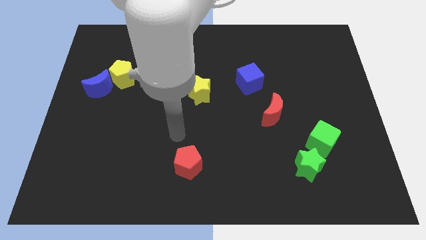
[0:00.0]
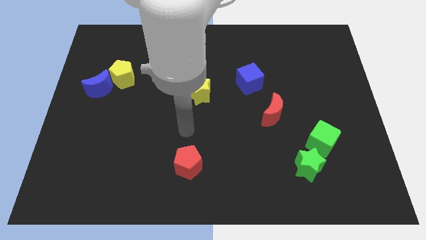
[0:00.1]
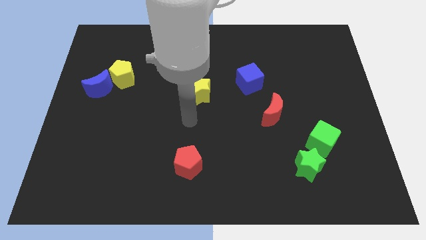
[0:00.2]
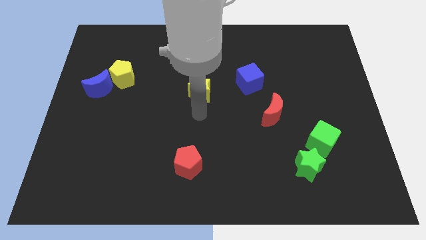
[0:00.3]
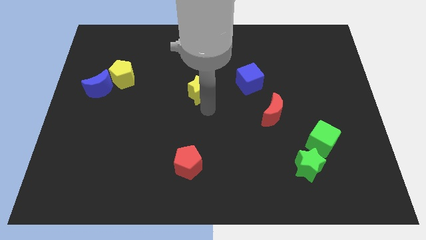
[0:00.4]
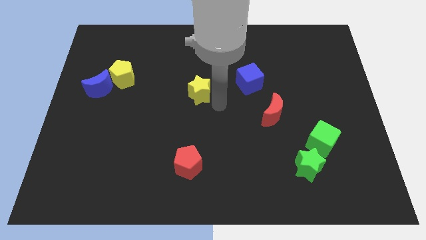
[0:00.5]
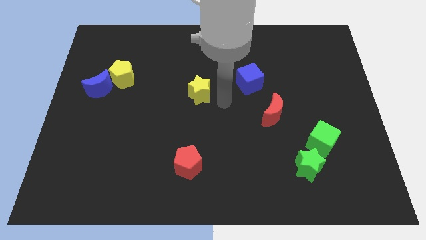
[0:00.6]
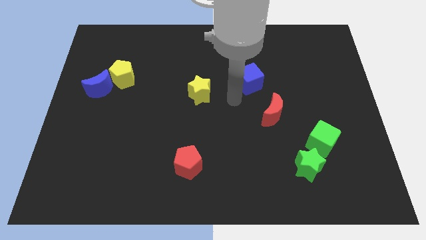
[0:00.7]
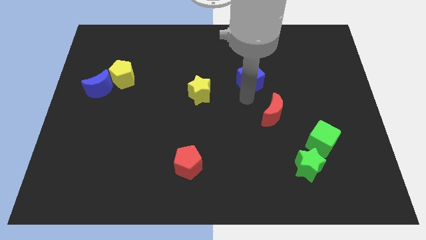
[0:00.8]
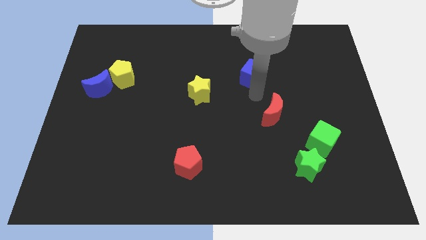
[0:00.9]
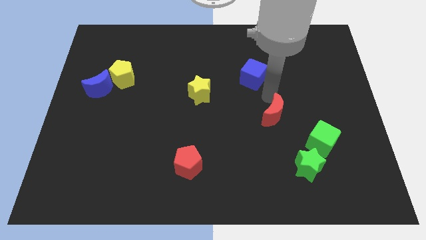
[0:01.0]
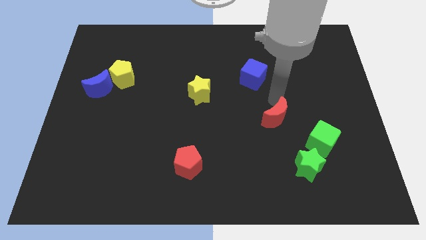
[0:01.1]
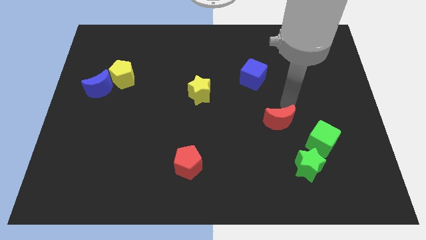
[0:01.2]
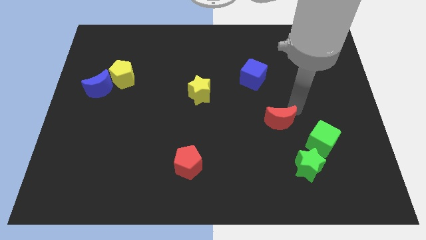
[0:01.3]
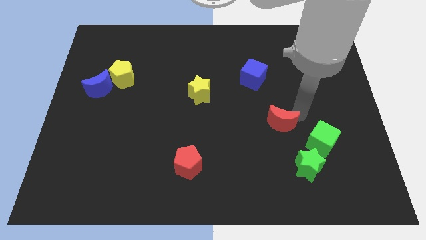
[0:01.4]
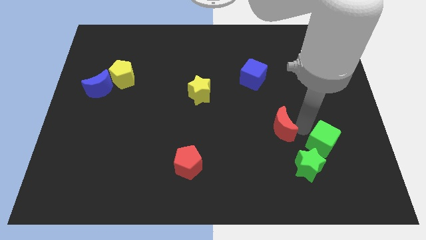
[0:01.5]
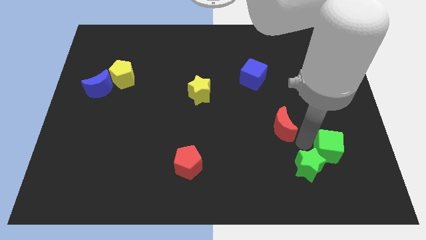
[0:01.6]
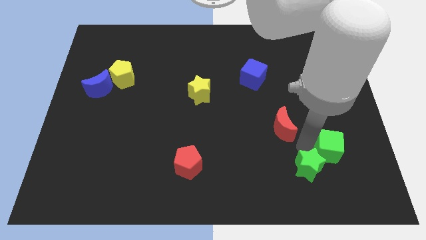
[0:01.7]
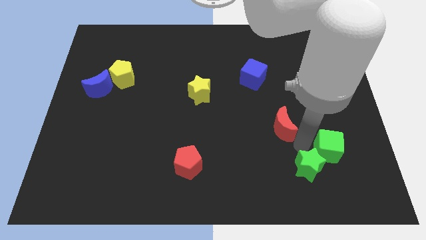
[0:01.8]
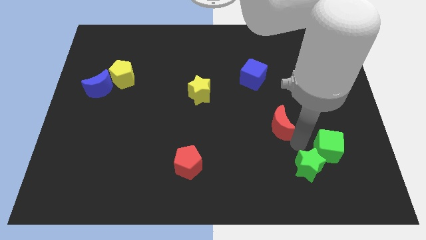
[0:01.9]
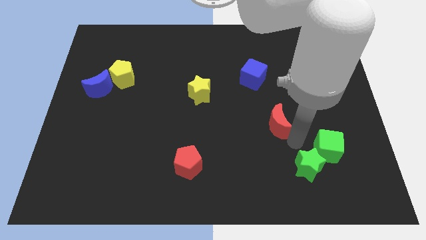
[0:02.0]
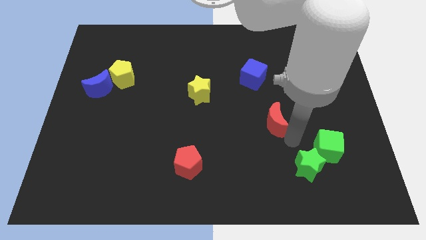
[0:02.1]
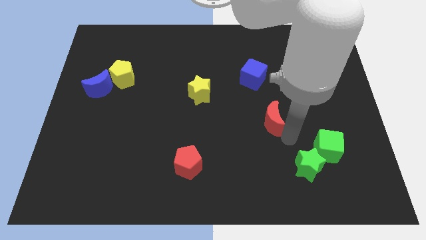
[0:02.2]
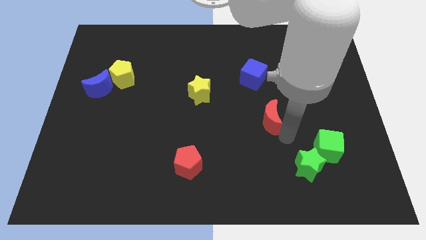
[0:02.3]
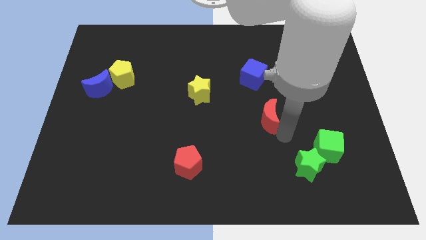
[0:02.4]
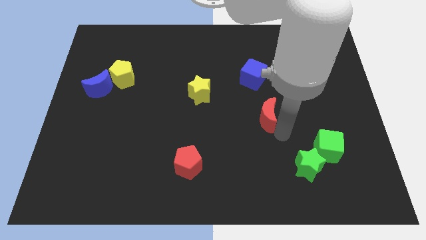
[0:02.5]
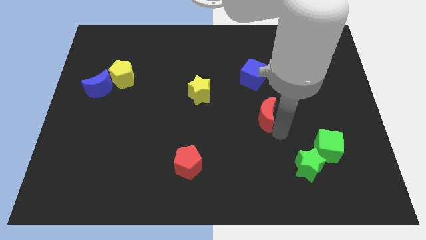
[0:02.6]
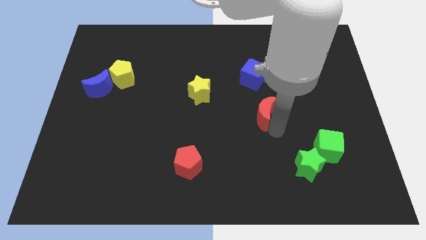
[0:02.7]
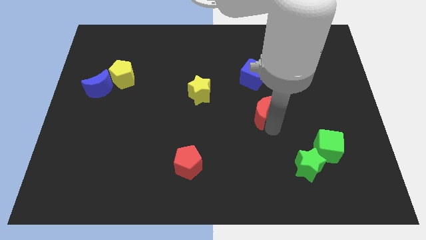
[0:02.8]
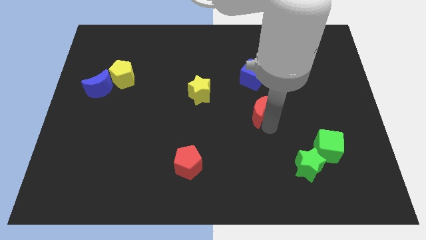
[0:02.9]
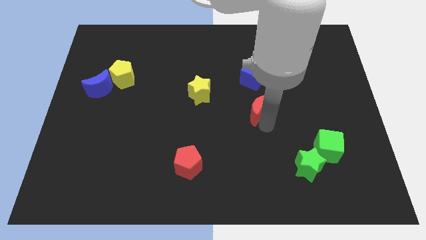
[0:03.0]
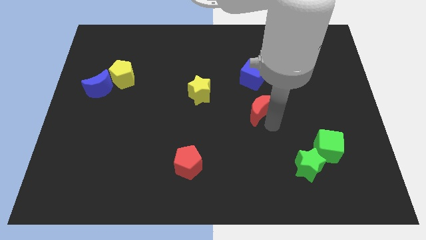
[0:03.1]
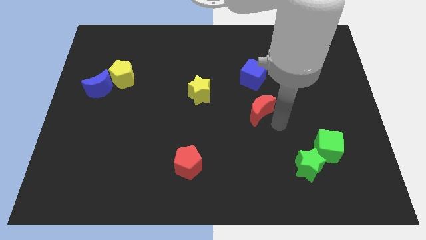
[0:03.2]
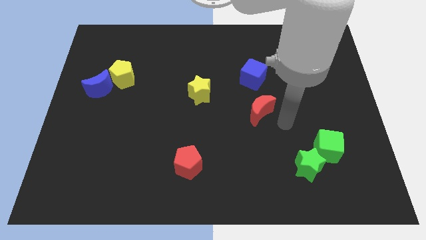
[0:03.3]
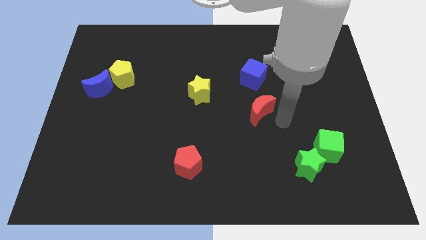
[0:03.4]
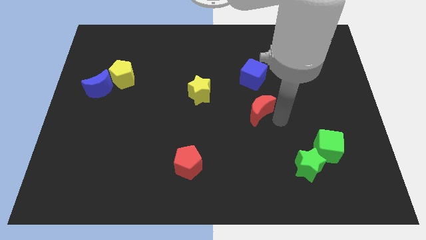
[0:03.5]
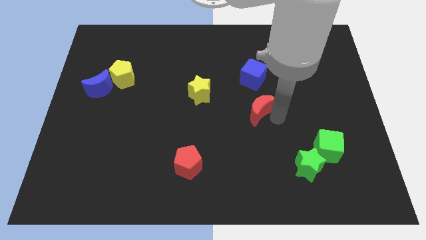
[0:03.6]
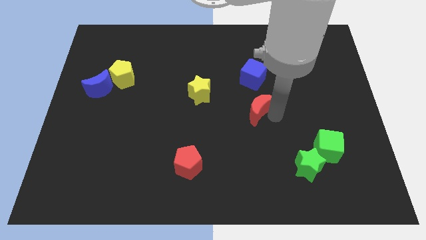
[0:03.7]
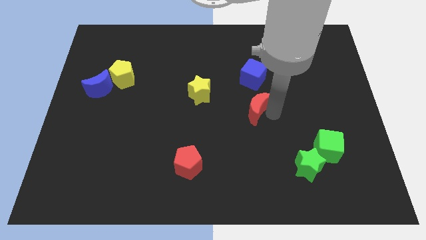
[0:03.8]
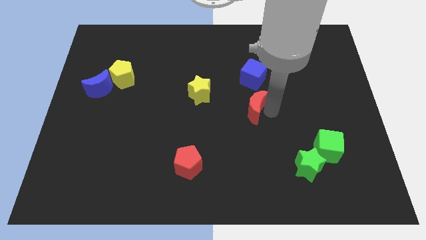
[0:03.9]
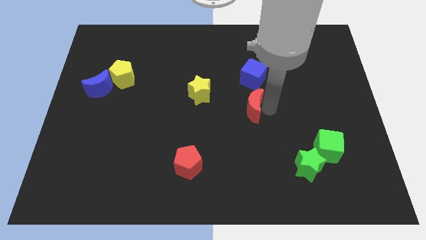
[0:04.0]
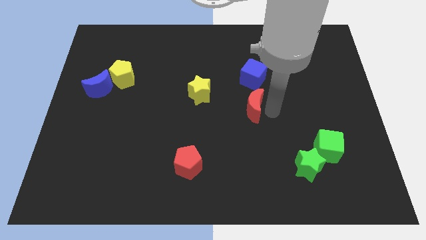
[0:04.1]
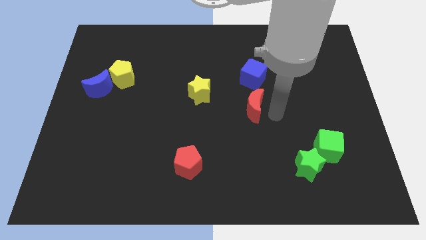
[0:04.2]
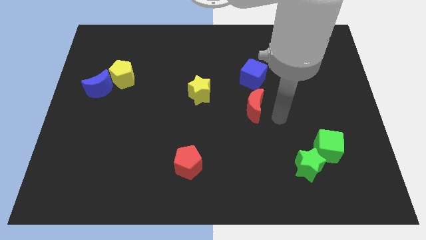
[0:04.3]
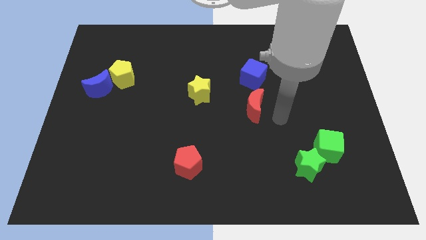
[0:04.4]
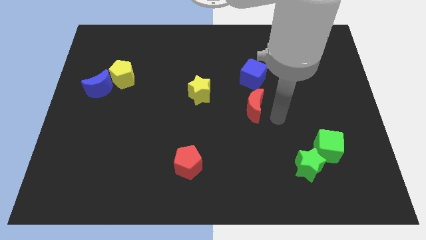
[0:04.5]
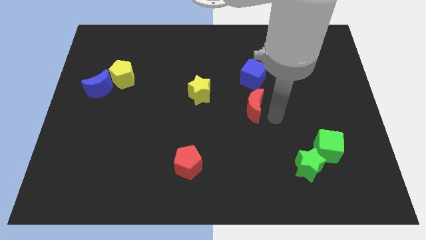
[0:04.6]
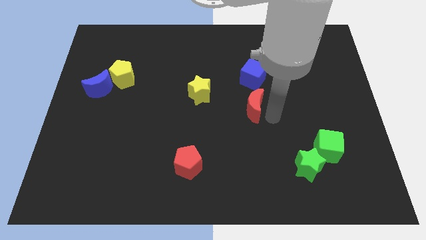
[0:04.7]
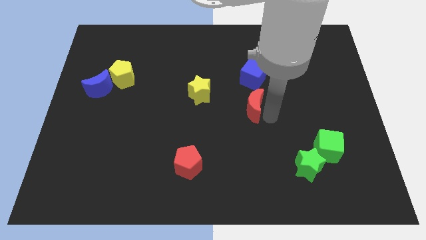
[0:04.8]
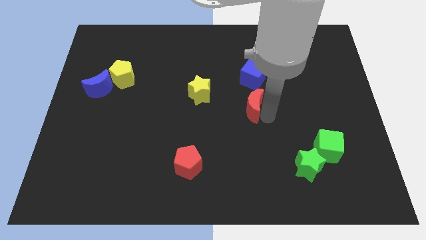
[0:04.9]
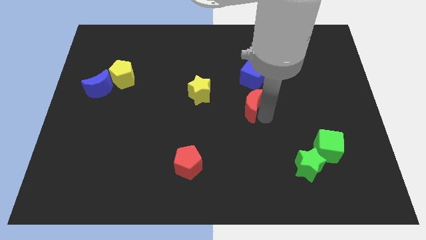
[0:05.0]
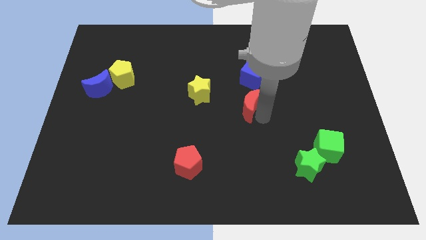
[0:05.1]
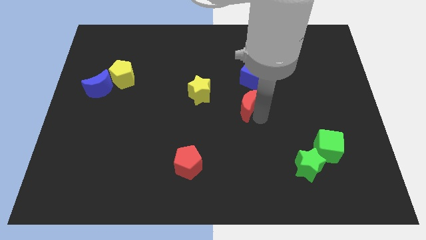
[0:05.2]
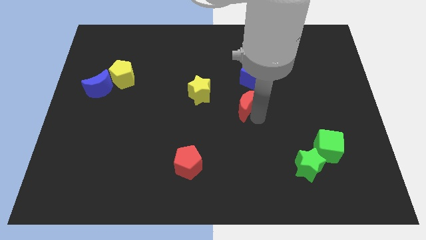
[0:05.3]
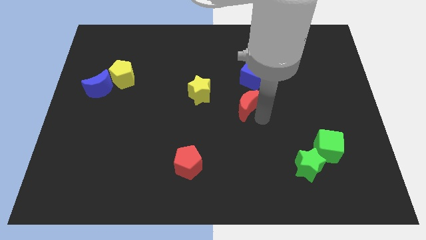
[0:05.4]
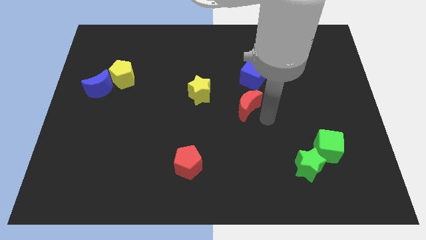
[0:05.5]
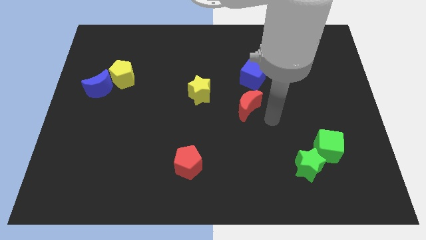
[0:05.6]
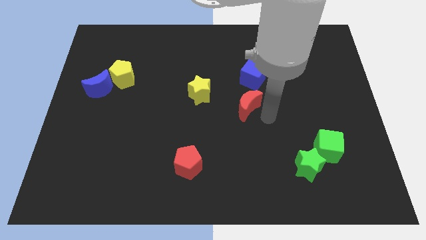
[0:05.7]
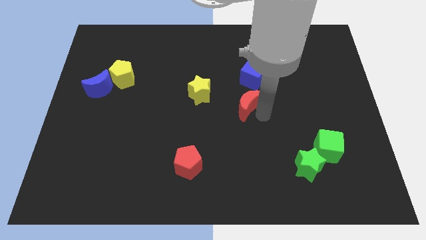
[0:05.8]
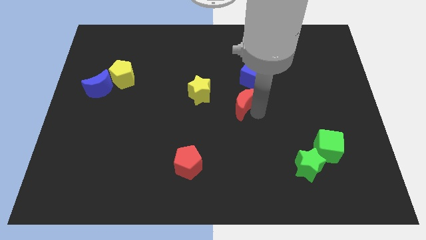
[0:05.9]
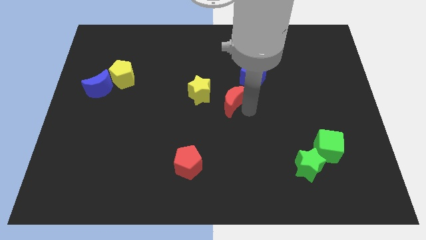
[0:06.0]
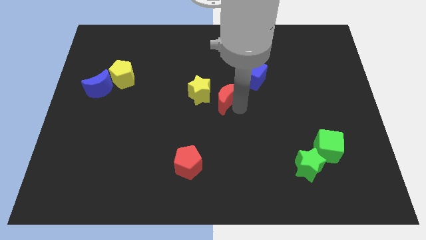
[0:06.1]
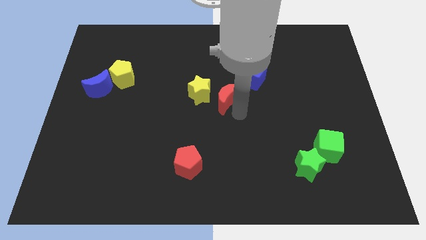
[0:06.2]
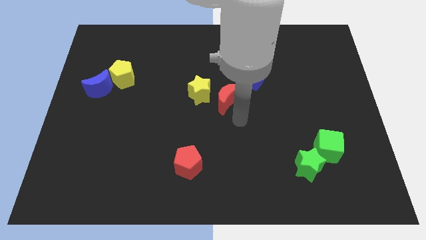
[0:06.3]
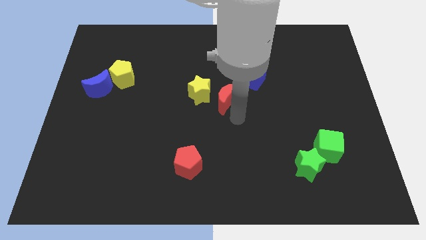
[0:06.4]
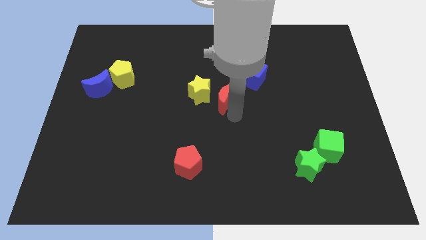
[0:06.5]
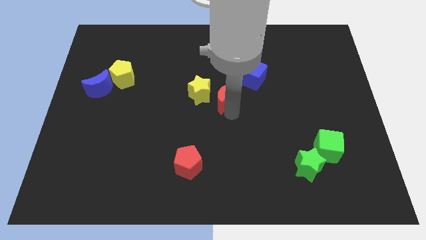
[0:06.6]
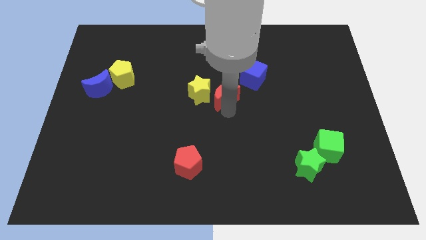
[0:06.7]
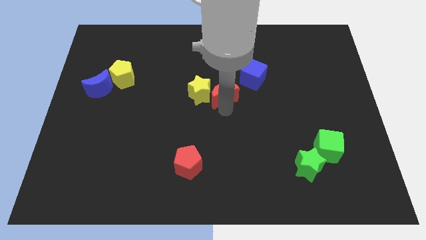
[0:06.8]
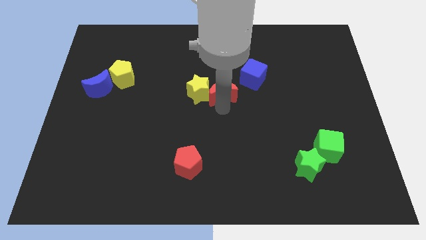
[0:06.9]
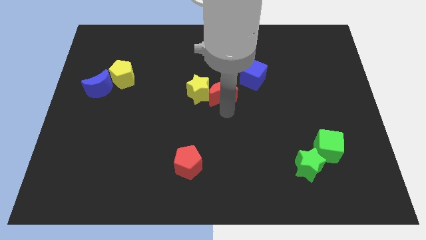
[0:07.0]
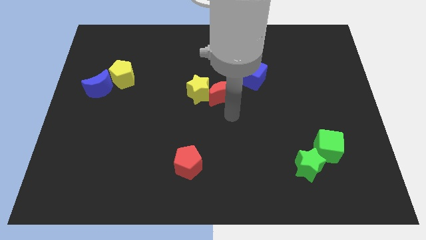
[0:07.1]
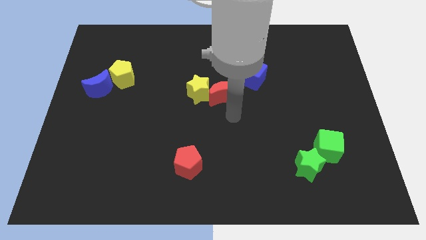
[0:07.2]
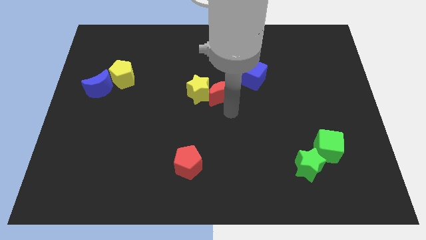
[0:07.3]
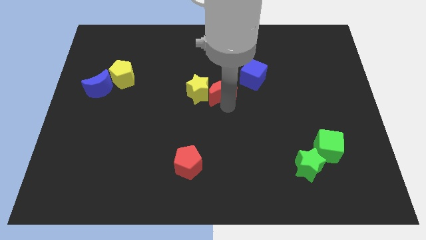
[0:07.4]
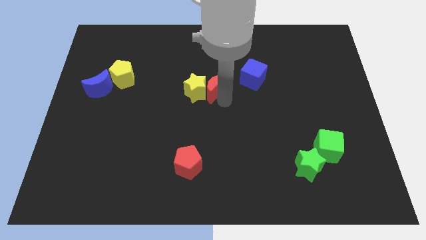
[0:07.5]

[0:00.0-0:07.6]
put the red moon just left of the blue cube
